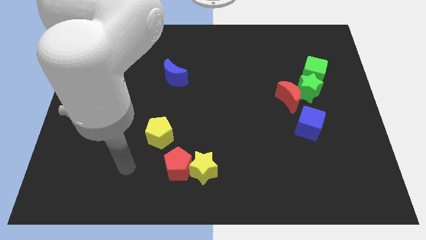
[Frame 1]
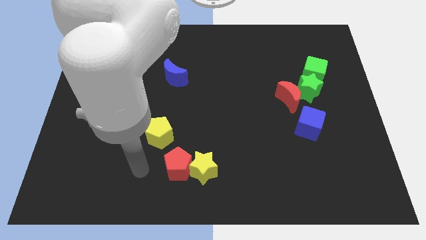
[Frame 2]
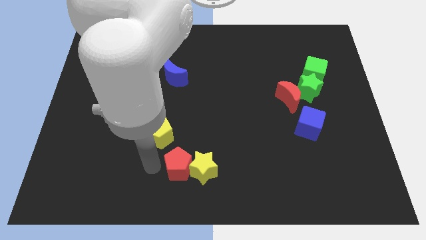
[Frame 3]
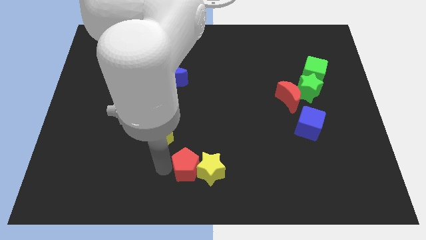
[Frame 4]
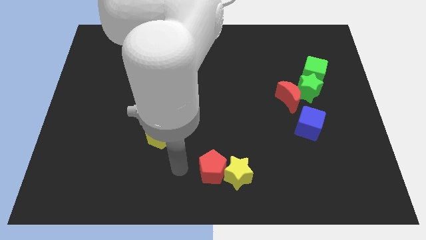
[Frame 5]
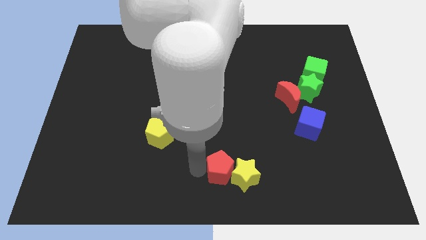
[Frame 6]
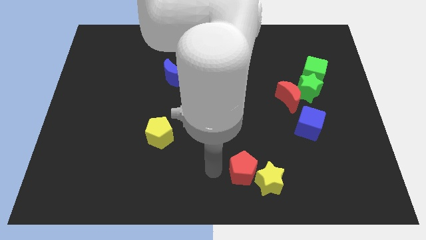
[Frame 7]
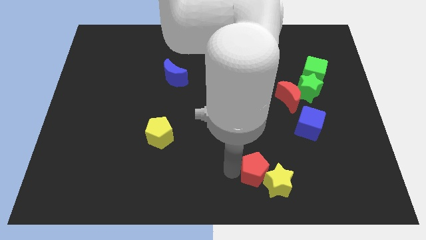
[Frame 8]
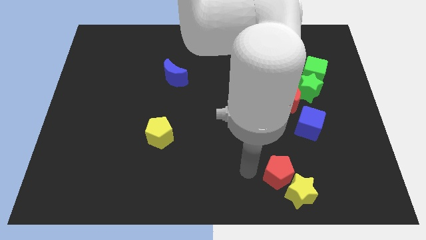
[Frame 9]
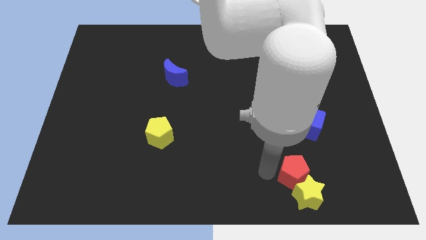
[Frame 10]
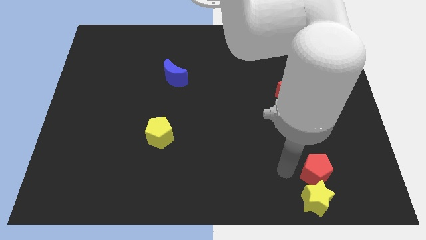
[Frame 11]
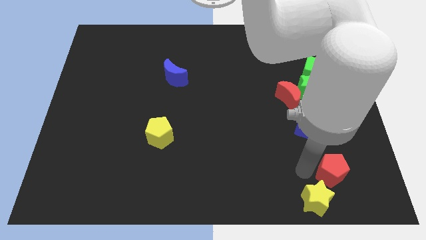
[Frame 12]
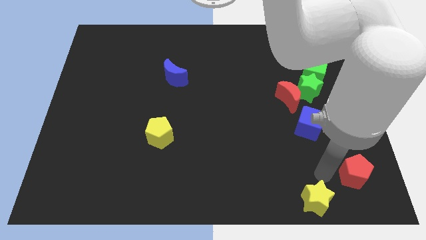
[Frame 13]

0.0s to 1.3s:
move the yellow star away from the red pentagon

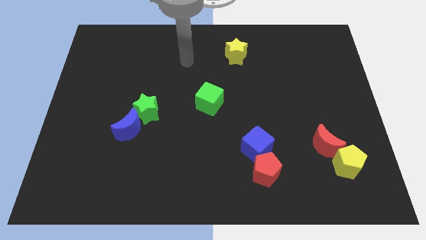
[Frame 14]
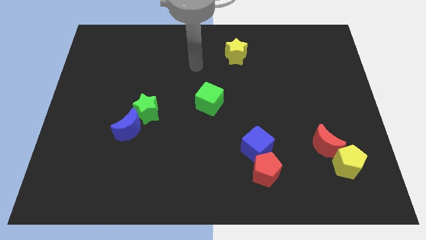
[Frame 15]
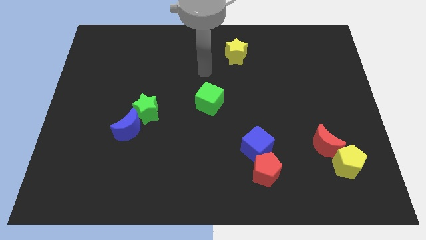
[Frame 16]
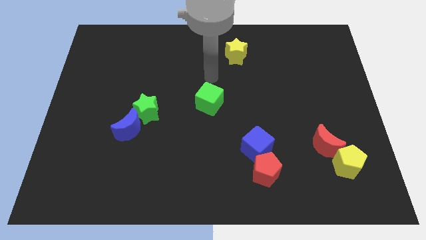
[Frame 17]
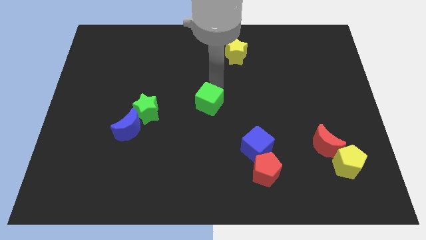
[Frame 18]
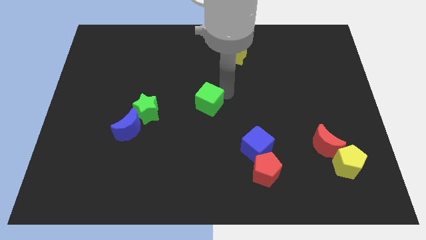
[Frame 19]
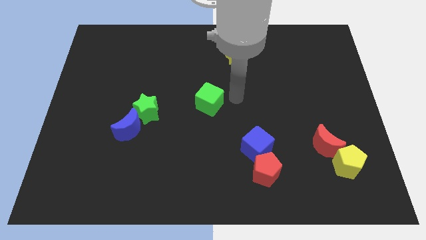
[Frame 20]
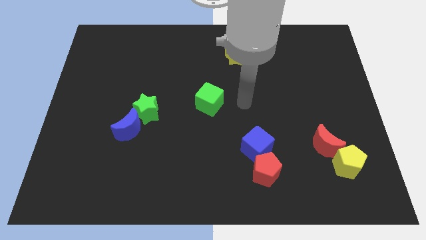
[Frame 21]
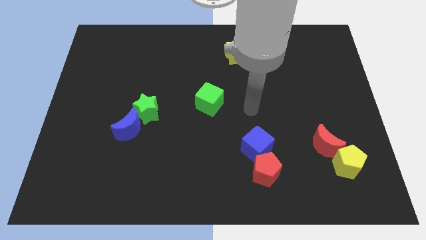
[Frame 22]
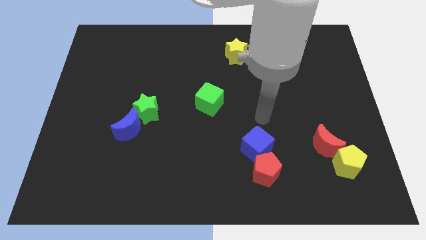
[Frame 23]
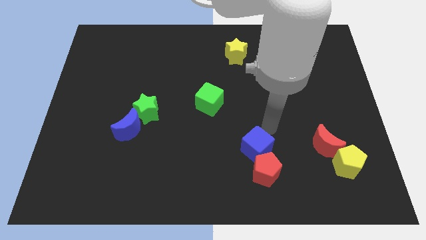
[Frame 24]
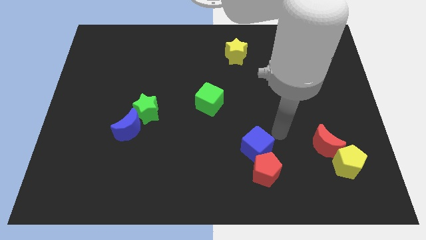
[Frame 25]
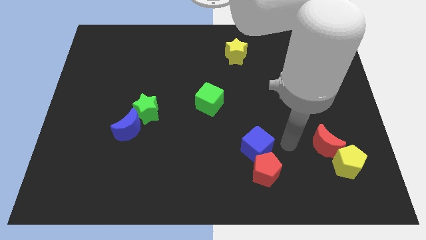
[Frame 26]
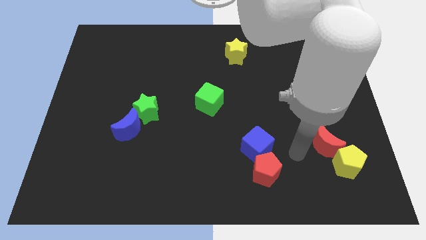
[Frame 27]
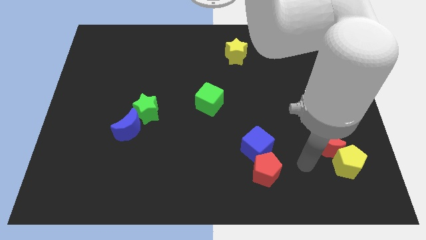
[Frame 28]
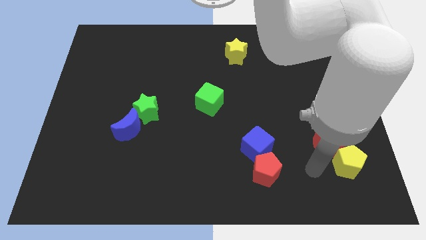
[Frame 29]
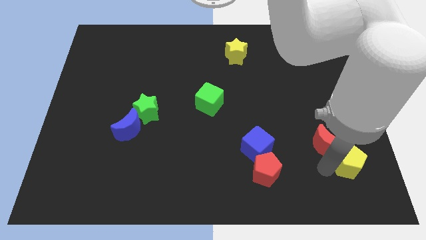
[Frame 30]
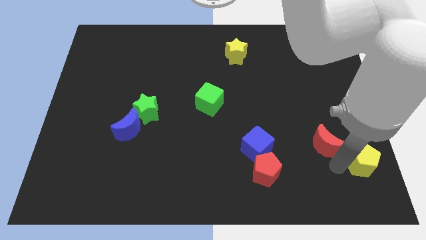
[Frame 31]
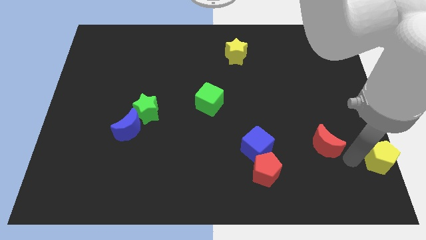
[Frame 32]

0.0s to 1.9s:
pull the red moon apart from the yellow pentagon

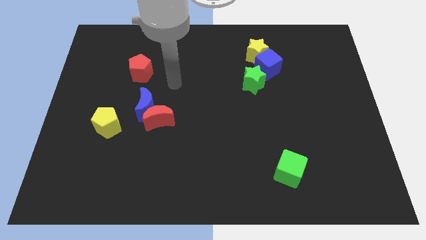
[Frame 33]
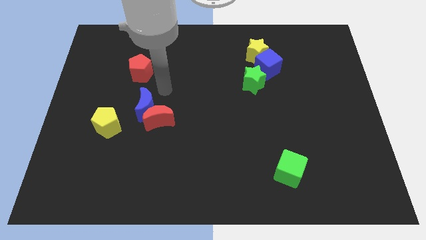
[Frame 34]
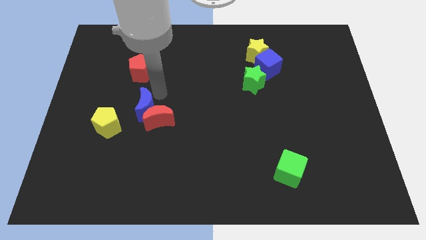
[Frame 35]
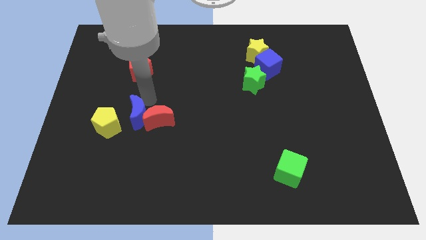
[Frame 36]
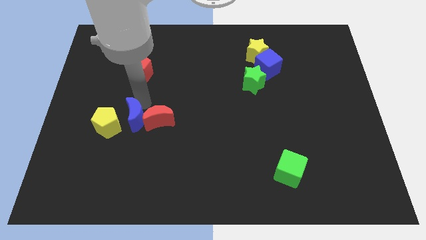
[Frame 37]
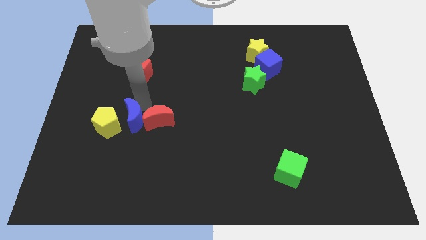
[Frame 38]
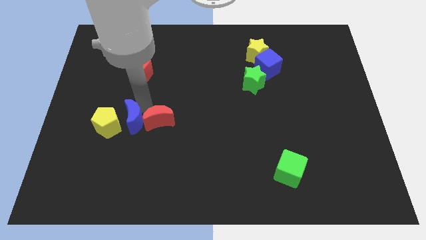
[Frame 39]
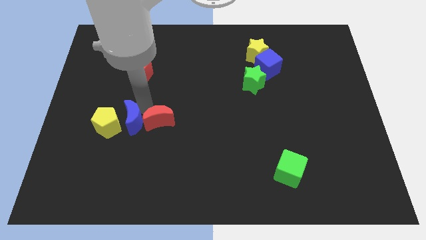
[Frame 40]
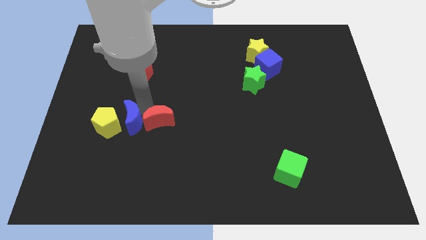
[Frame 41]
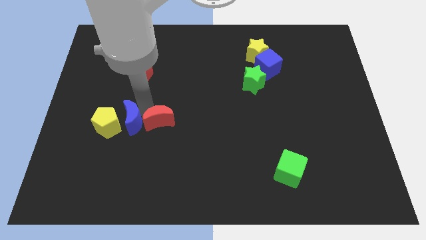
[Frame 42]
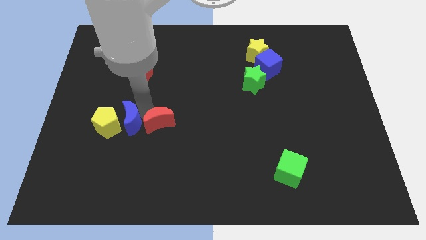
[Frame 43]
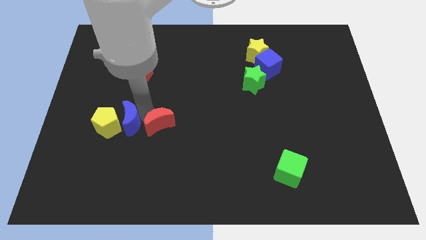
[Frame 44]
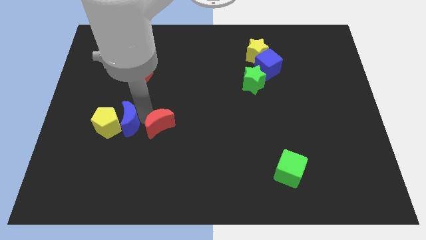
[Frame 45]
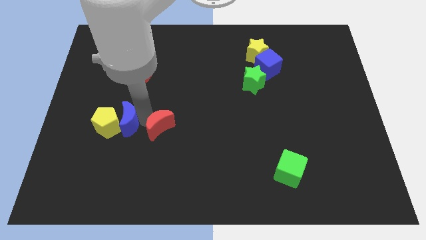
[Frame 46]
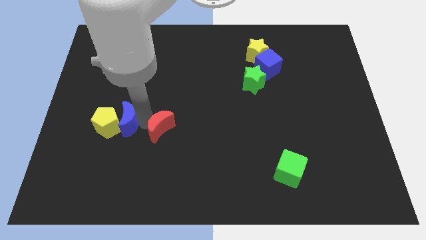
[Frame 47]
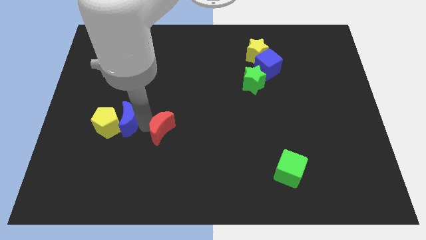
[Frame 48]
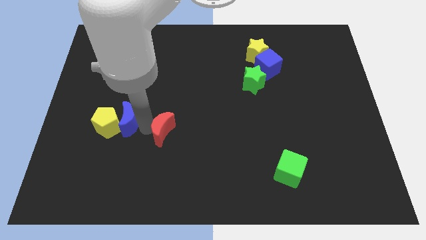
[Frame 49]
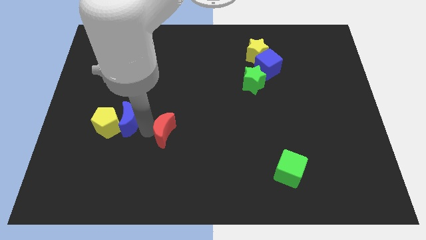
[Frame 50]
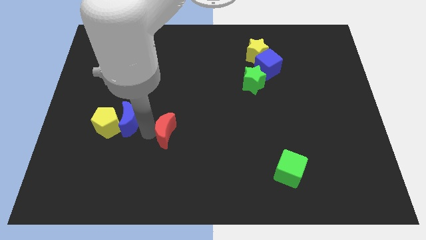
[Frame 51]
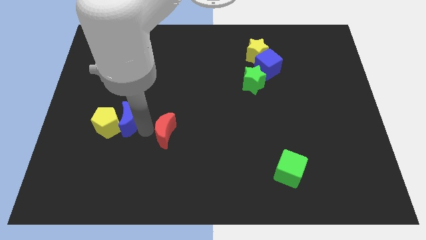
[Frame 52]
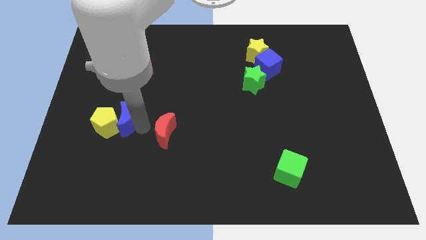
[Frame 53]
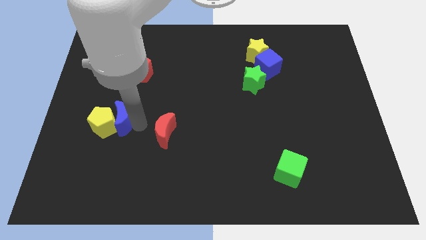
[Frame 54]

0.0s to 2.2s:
move the red moon away from the blue moon

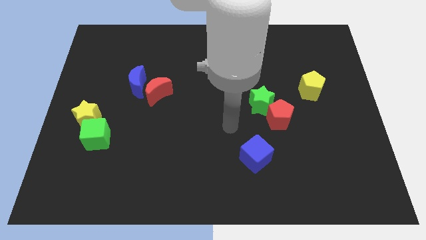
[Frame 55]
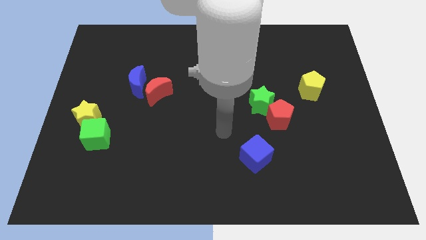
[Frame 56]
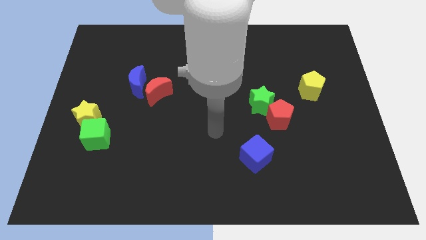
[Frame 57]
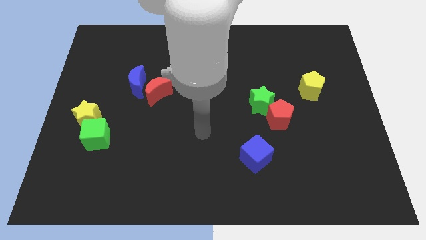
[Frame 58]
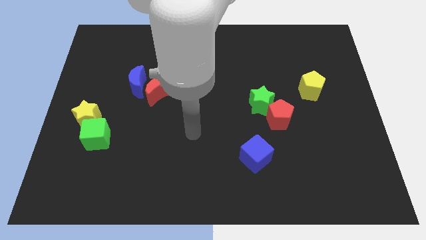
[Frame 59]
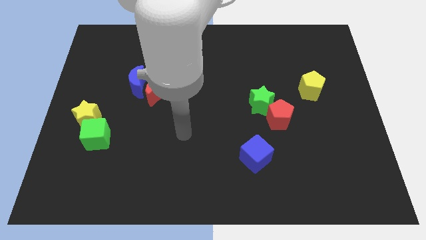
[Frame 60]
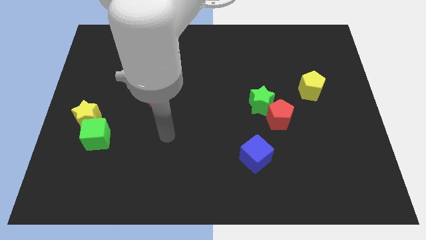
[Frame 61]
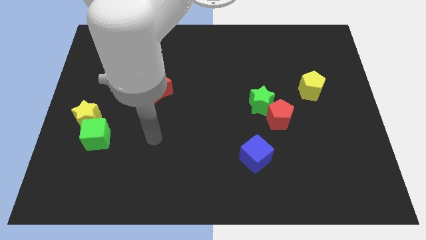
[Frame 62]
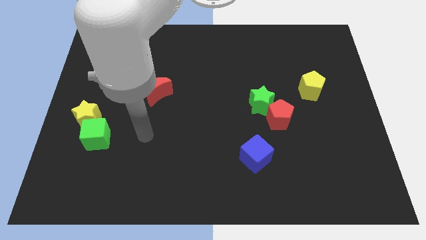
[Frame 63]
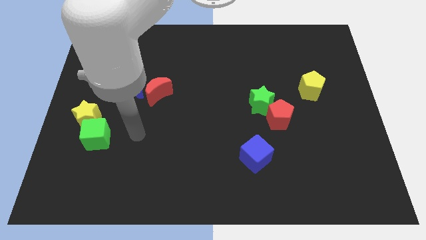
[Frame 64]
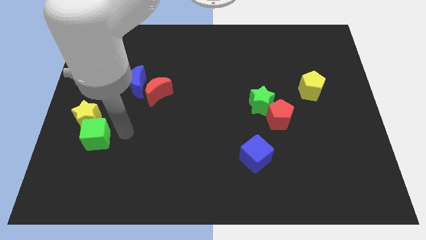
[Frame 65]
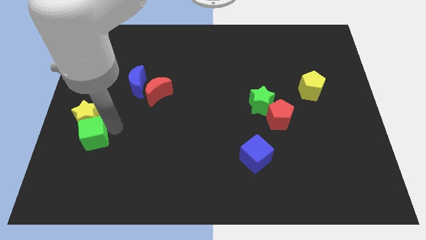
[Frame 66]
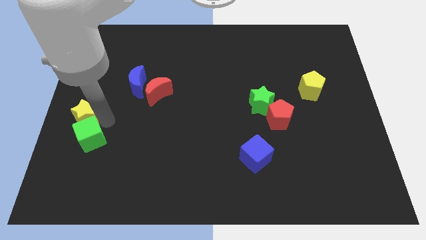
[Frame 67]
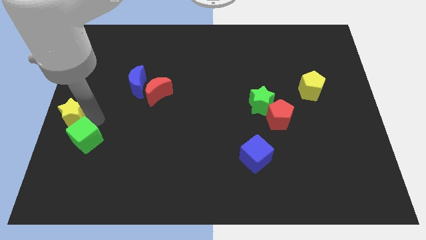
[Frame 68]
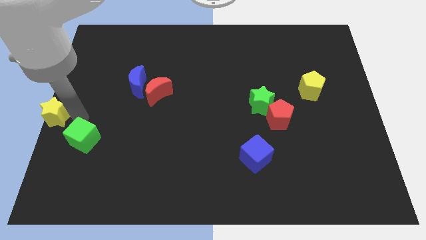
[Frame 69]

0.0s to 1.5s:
pull the green cube apart from the yellow star

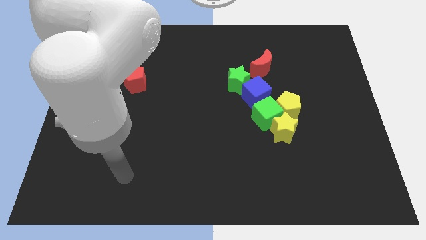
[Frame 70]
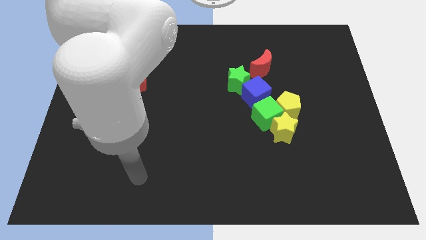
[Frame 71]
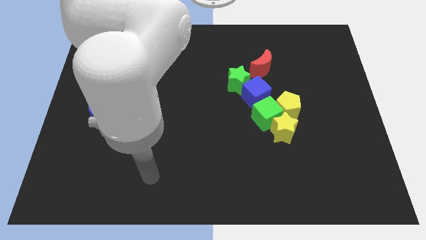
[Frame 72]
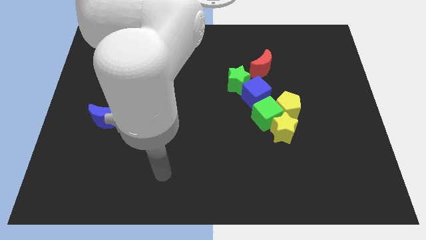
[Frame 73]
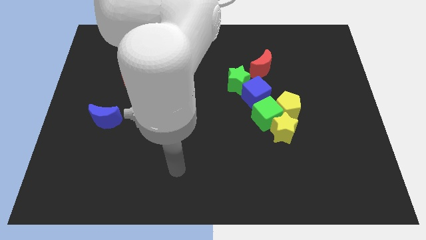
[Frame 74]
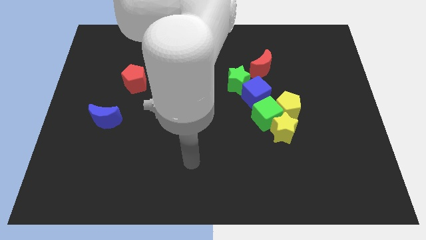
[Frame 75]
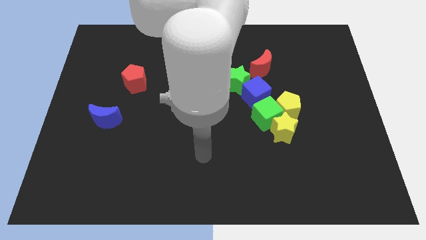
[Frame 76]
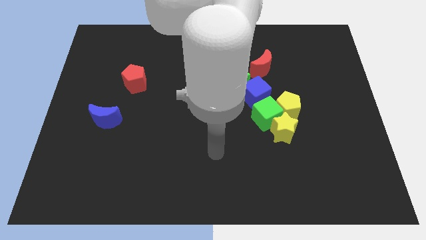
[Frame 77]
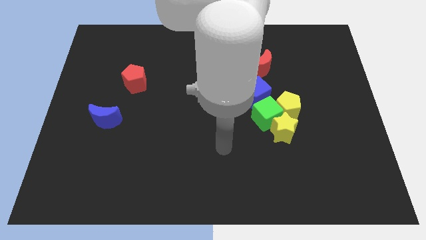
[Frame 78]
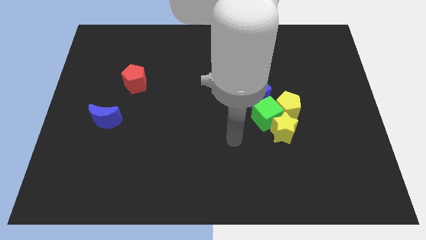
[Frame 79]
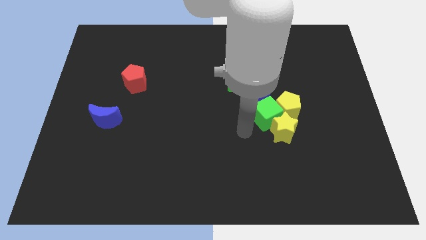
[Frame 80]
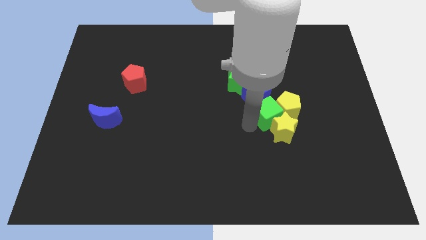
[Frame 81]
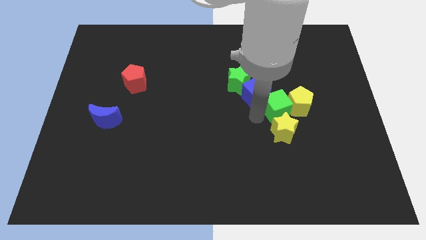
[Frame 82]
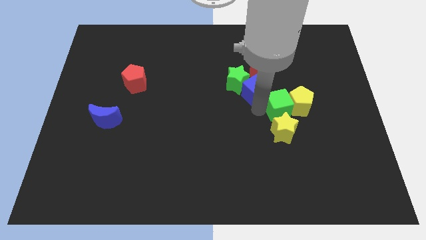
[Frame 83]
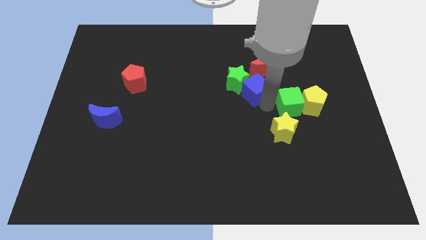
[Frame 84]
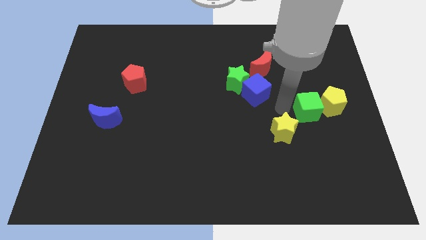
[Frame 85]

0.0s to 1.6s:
separate the yellow star from the green cube and yellow pentagon

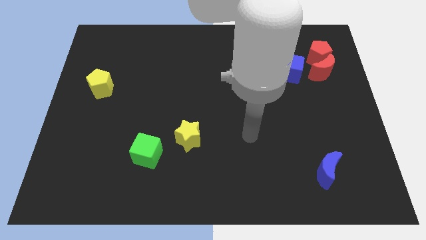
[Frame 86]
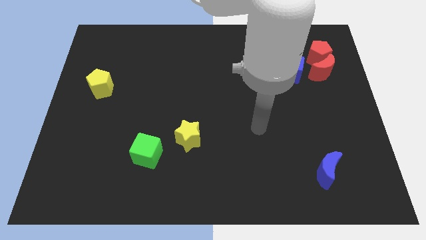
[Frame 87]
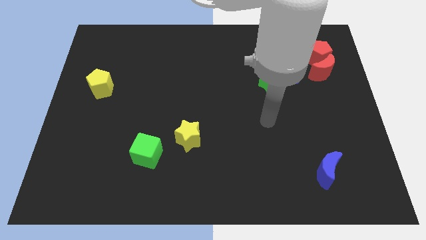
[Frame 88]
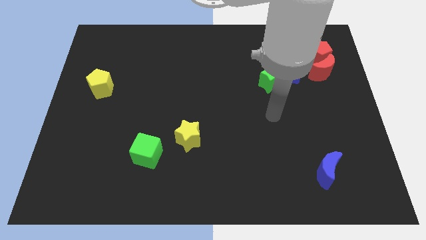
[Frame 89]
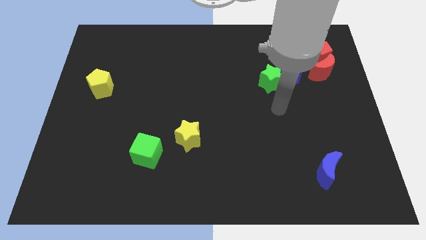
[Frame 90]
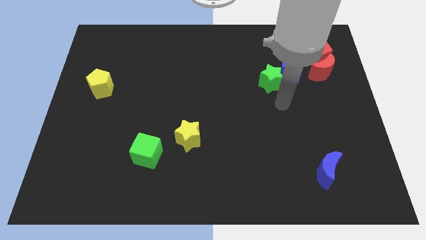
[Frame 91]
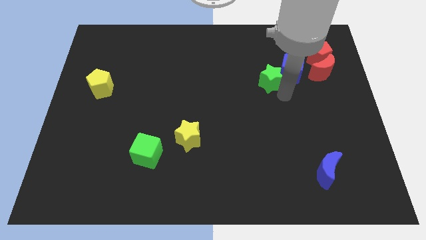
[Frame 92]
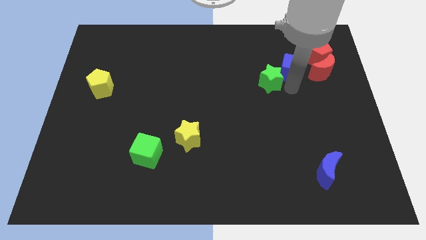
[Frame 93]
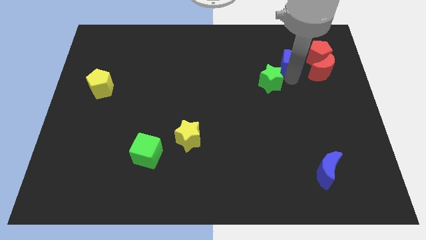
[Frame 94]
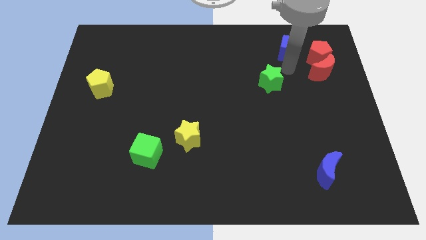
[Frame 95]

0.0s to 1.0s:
move the green star away from the blue cube
